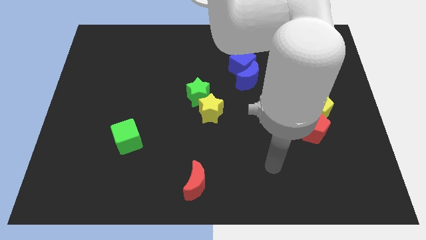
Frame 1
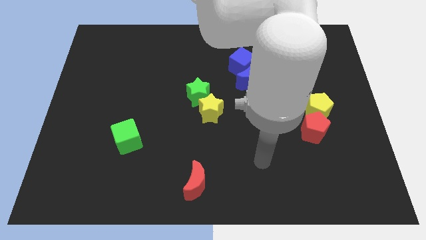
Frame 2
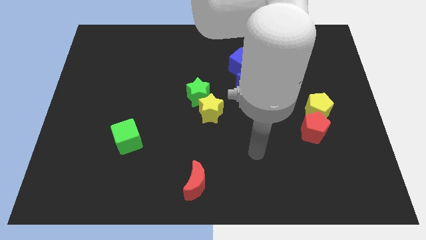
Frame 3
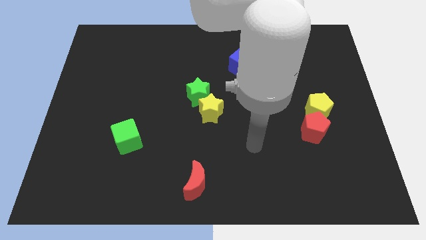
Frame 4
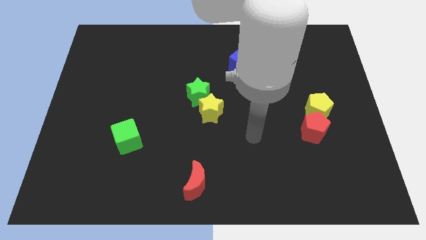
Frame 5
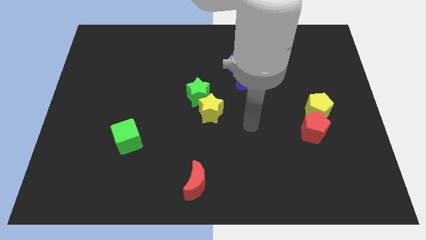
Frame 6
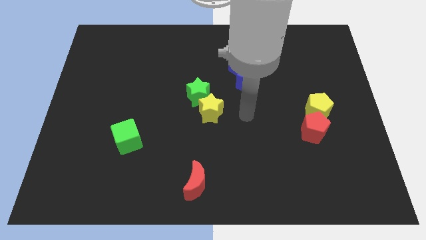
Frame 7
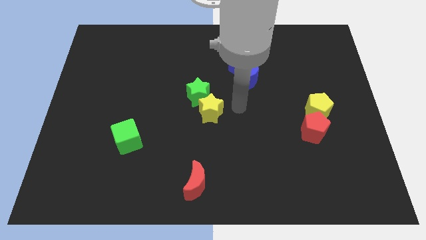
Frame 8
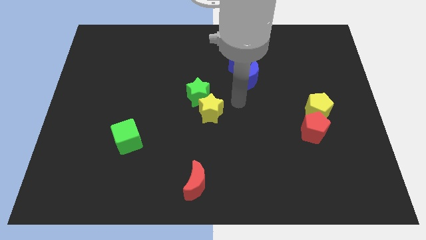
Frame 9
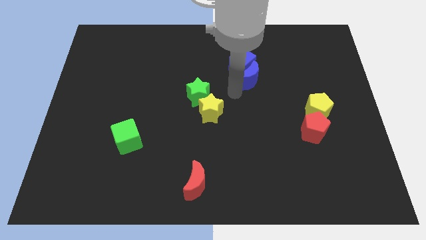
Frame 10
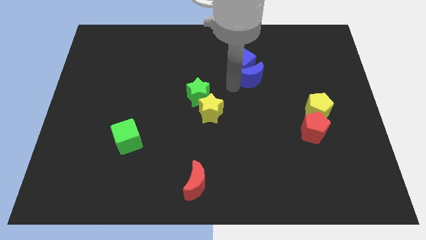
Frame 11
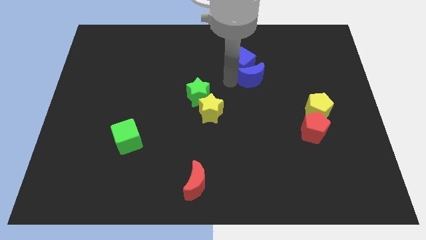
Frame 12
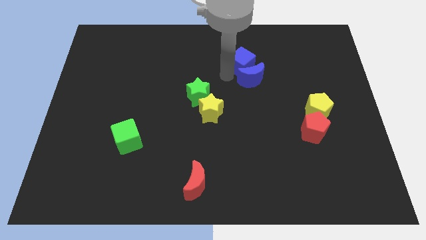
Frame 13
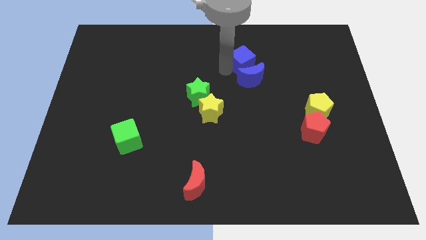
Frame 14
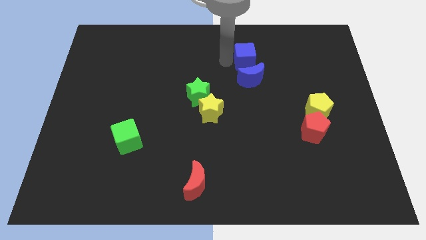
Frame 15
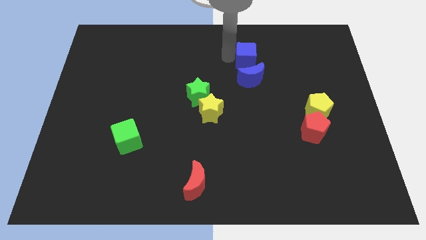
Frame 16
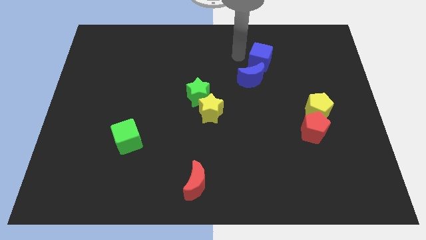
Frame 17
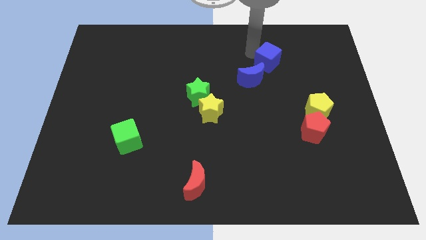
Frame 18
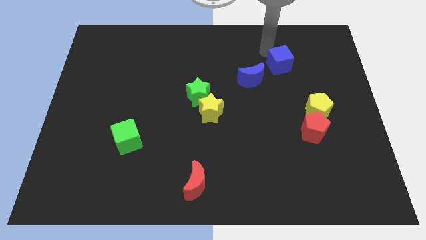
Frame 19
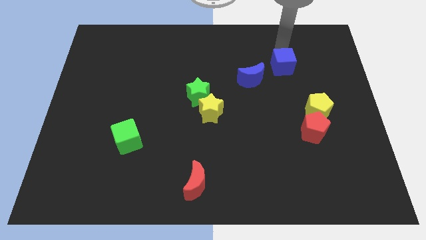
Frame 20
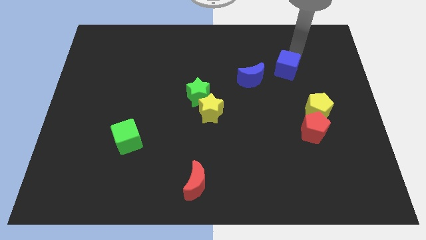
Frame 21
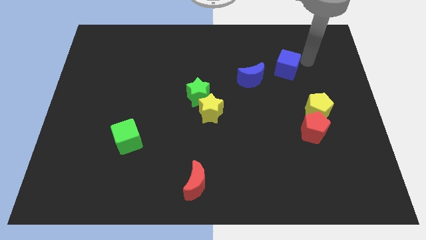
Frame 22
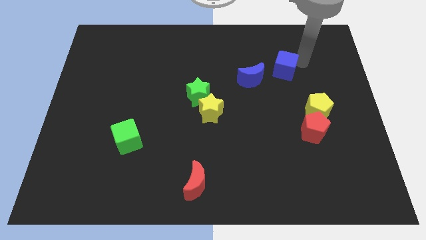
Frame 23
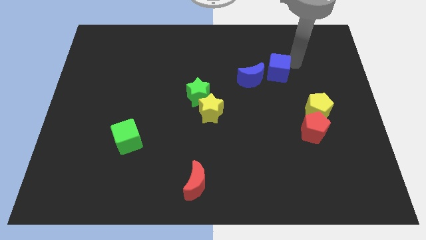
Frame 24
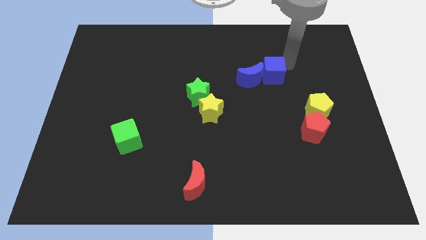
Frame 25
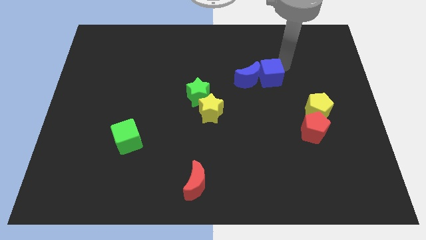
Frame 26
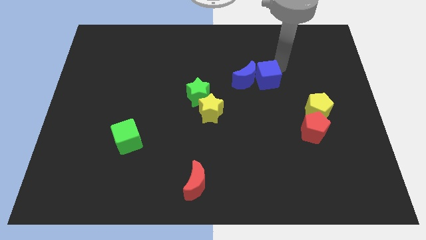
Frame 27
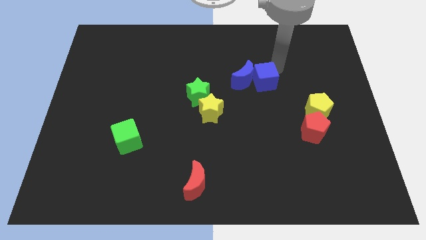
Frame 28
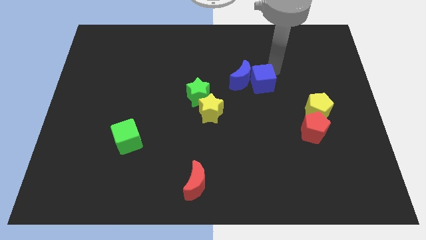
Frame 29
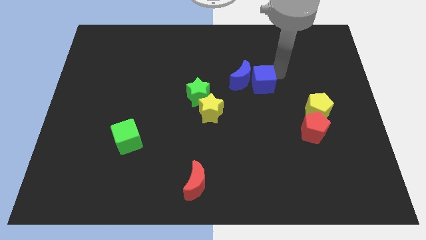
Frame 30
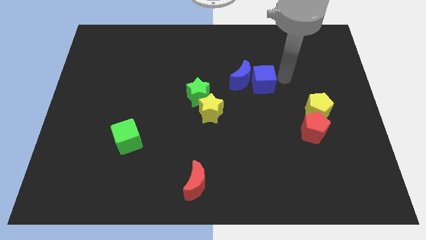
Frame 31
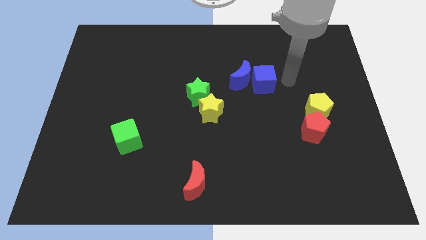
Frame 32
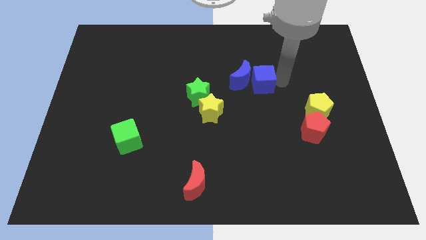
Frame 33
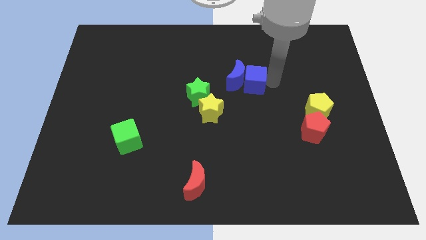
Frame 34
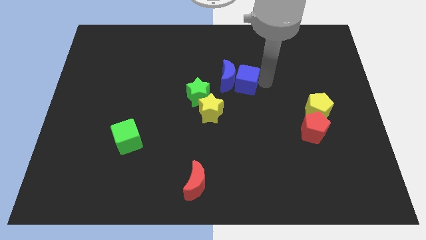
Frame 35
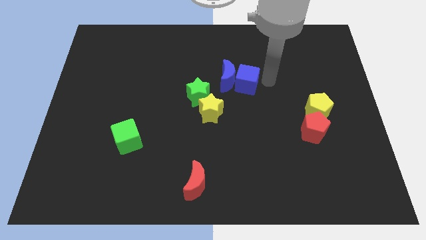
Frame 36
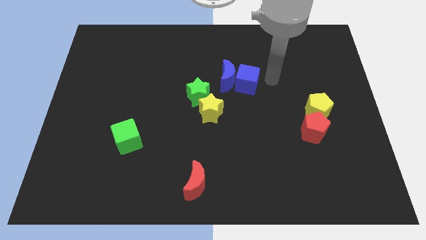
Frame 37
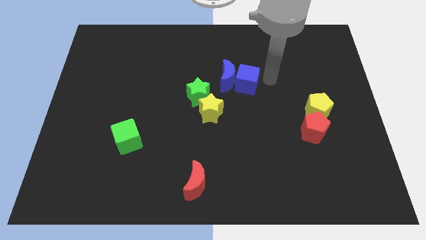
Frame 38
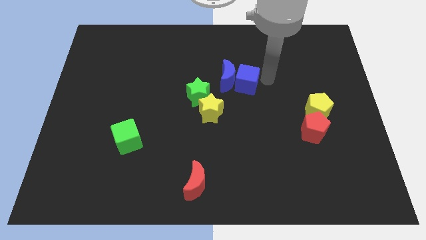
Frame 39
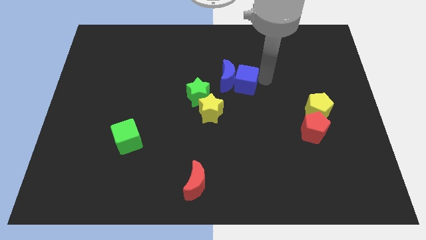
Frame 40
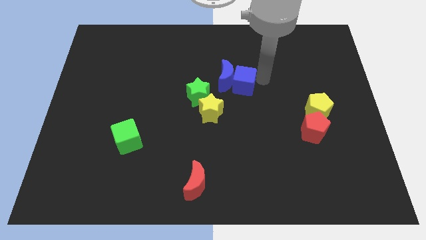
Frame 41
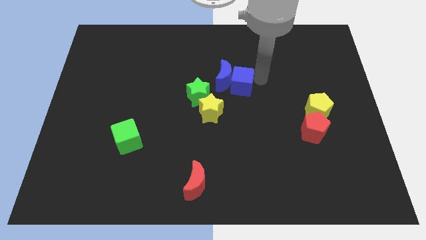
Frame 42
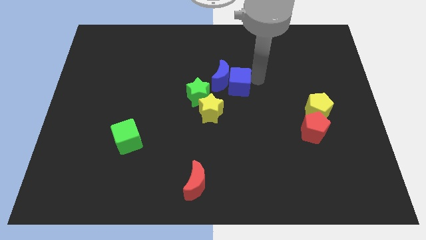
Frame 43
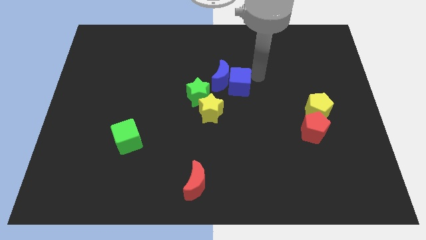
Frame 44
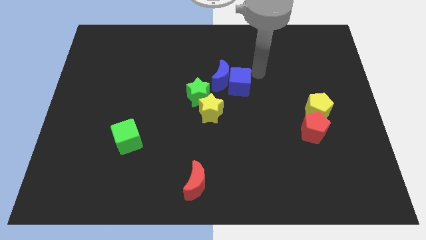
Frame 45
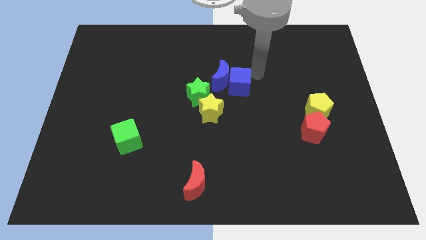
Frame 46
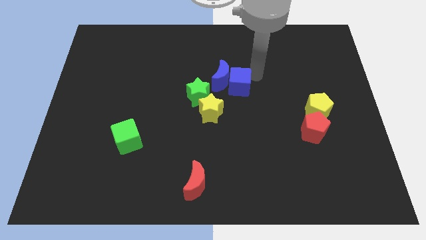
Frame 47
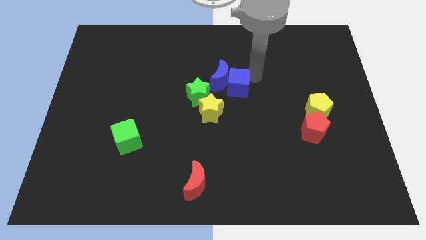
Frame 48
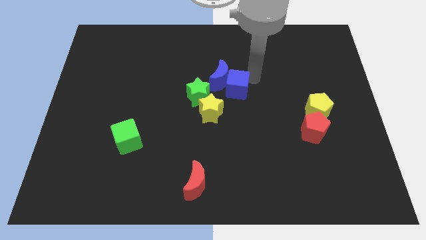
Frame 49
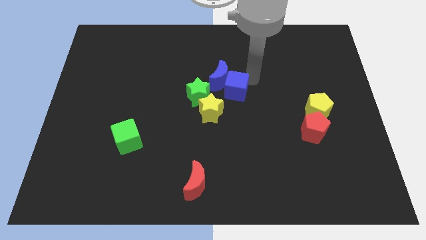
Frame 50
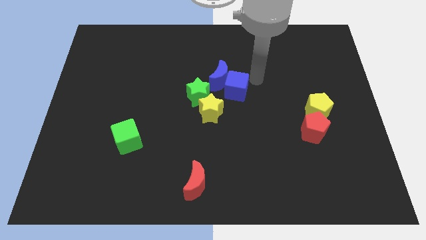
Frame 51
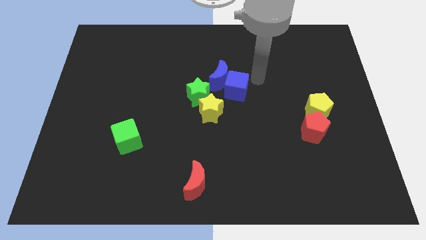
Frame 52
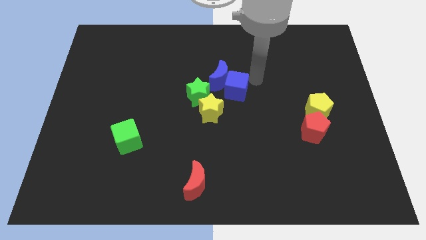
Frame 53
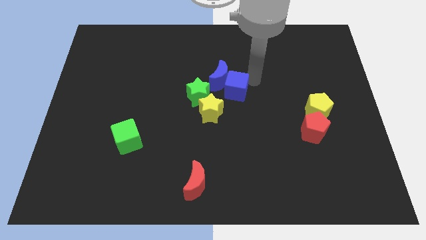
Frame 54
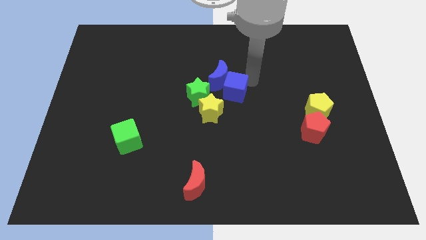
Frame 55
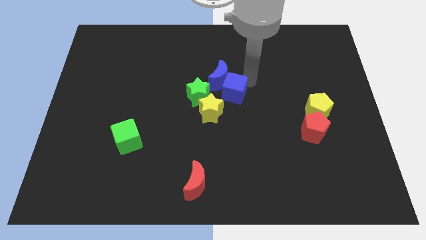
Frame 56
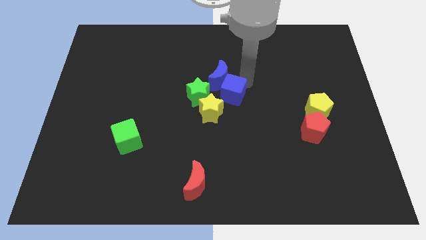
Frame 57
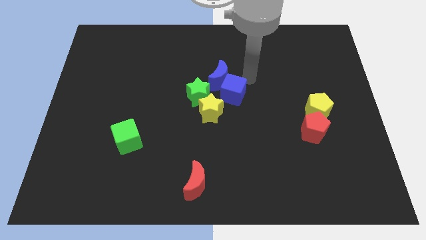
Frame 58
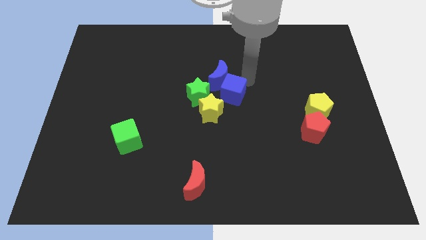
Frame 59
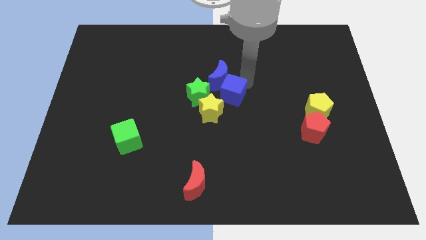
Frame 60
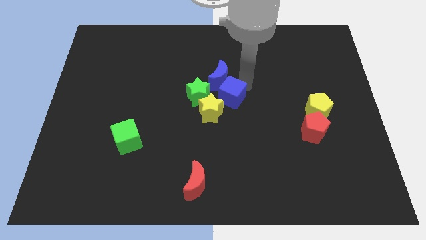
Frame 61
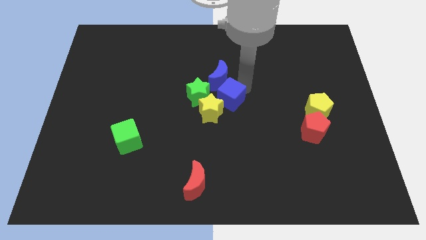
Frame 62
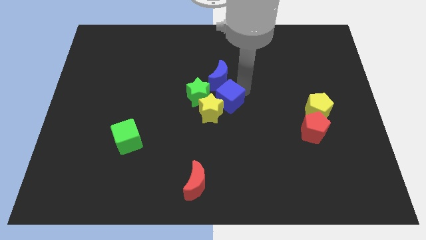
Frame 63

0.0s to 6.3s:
slide the blue cube close to the yellow star
